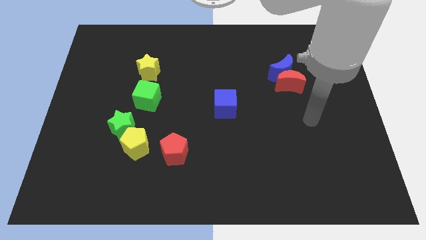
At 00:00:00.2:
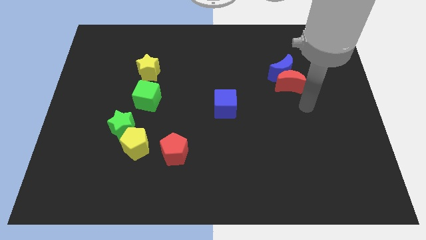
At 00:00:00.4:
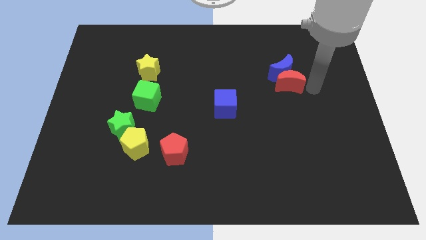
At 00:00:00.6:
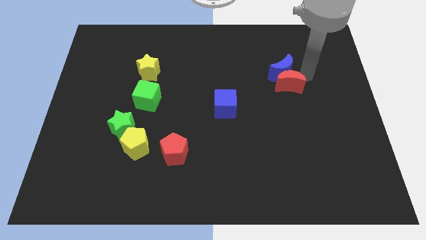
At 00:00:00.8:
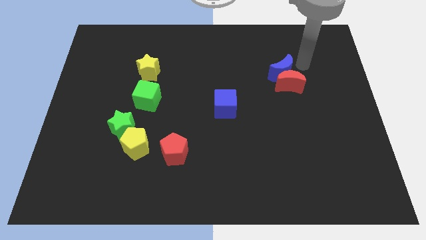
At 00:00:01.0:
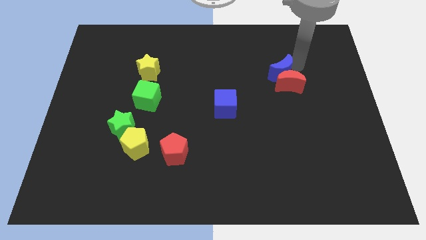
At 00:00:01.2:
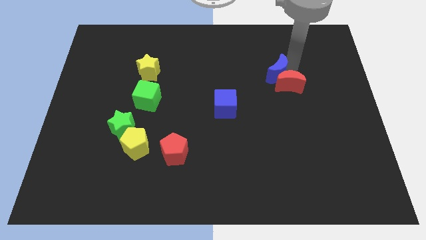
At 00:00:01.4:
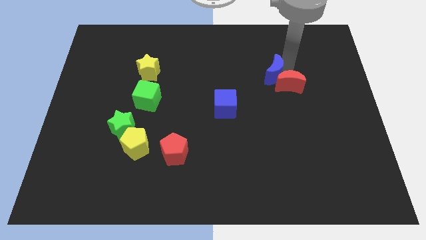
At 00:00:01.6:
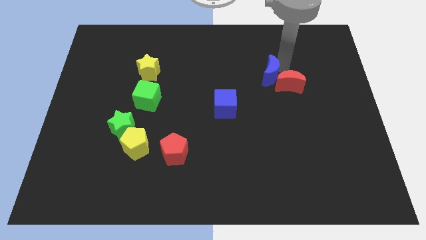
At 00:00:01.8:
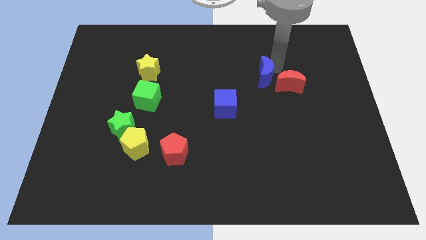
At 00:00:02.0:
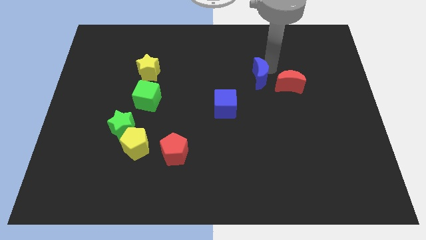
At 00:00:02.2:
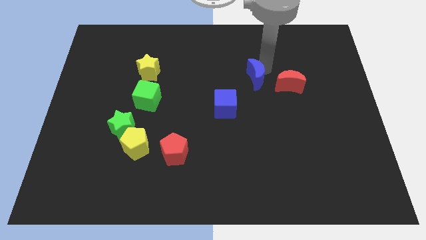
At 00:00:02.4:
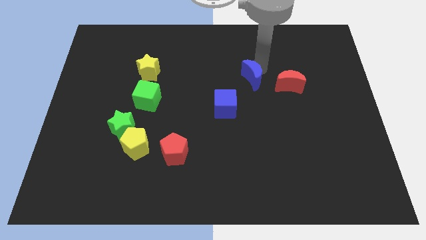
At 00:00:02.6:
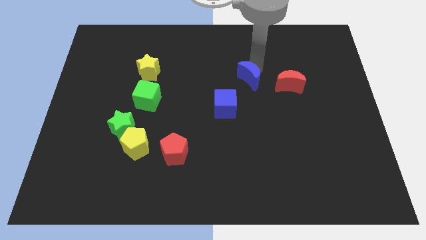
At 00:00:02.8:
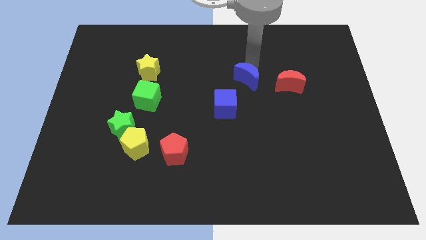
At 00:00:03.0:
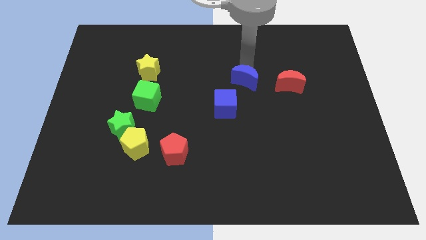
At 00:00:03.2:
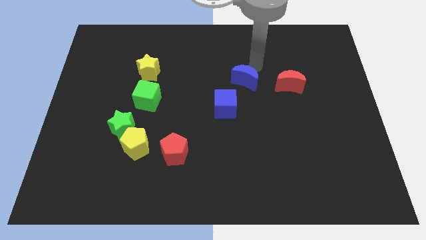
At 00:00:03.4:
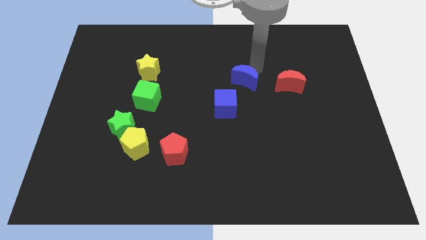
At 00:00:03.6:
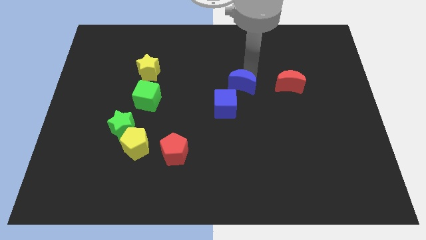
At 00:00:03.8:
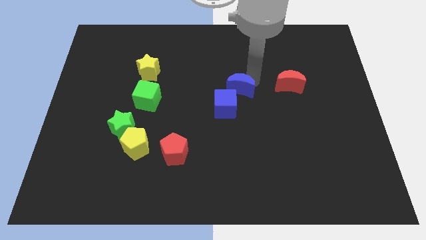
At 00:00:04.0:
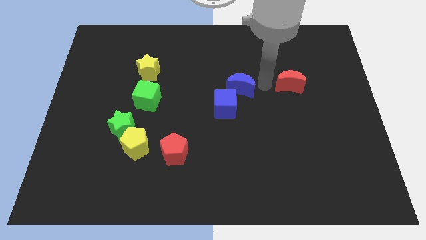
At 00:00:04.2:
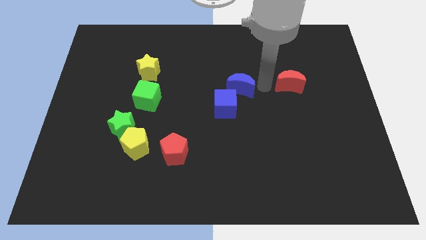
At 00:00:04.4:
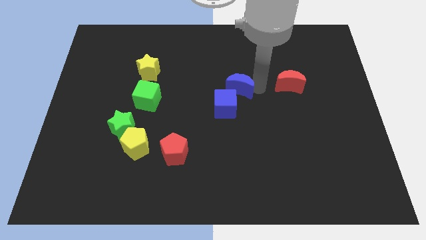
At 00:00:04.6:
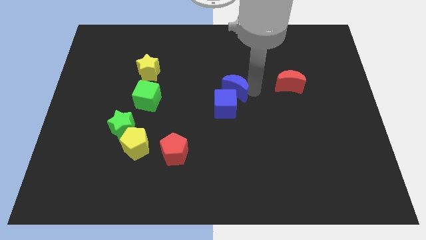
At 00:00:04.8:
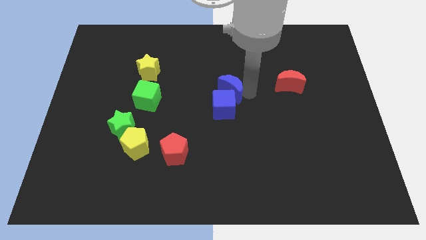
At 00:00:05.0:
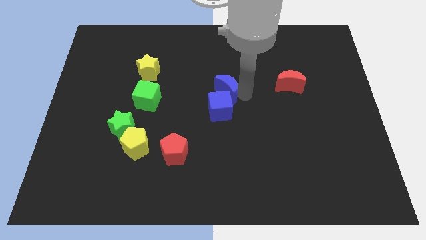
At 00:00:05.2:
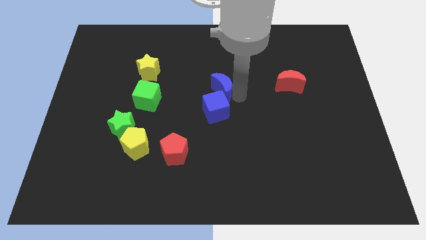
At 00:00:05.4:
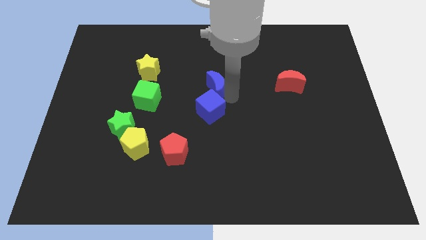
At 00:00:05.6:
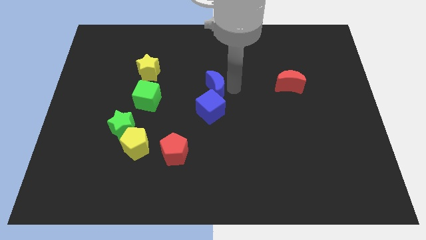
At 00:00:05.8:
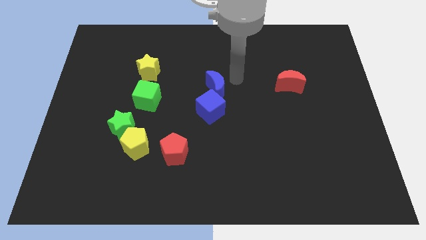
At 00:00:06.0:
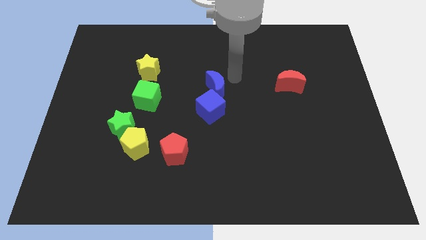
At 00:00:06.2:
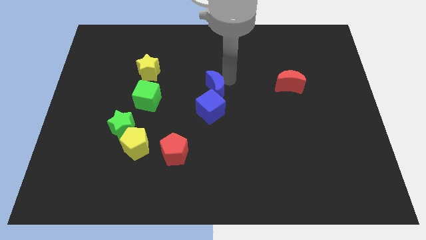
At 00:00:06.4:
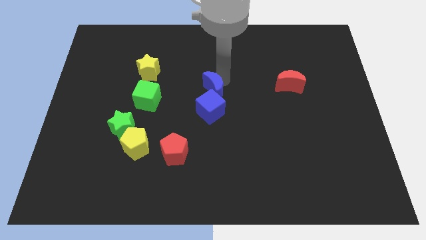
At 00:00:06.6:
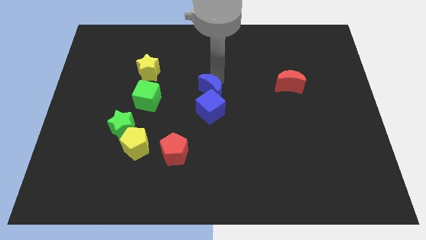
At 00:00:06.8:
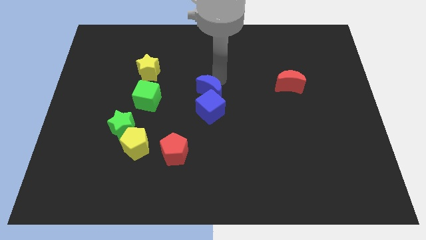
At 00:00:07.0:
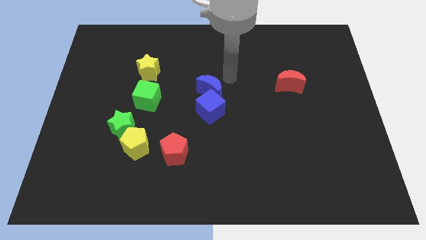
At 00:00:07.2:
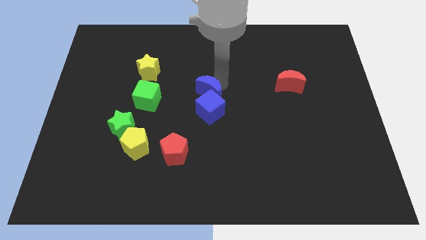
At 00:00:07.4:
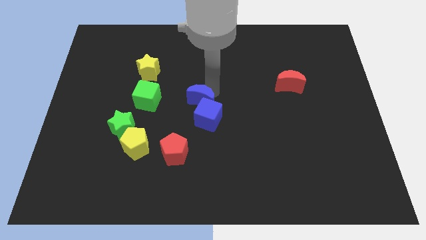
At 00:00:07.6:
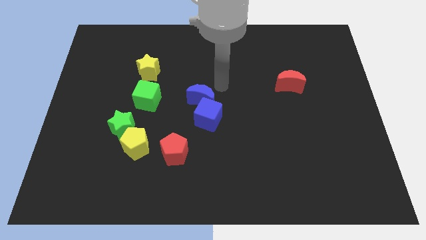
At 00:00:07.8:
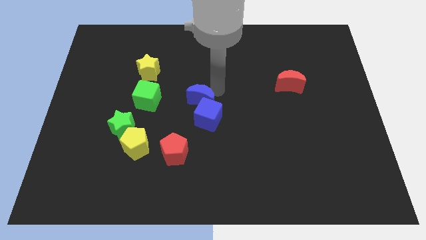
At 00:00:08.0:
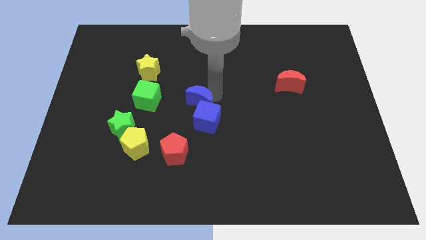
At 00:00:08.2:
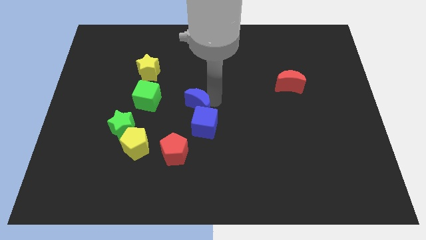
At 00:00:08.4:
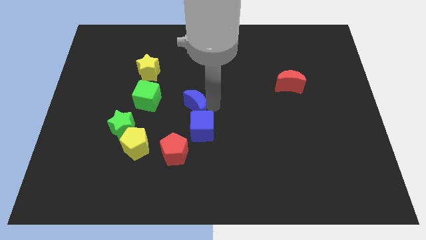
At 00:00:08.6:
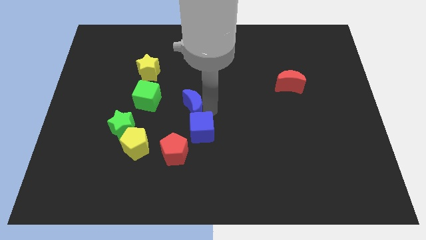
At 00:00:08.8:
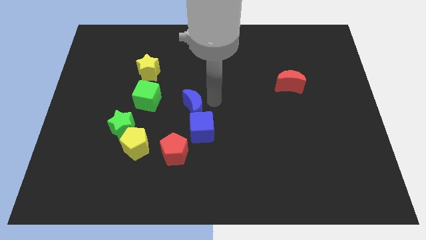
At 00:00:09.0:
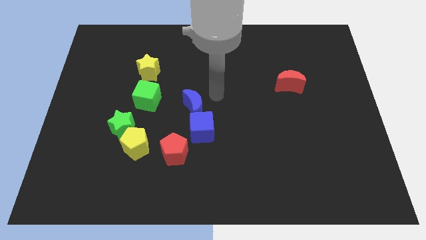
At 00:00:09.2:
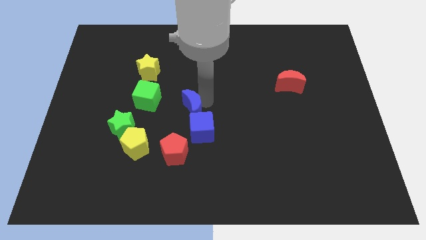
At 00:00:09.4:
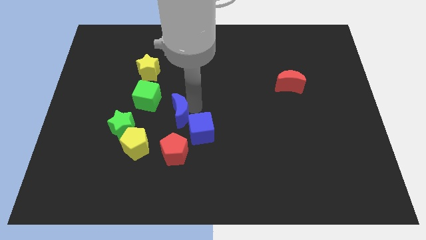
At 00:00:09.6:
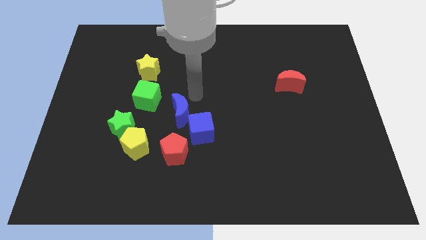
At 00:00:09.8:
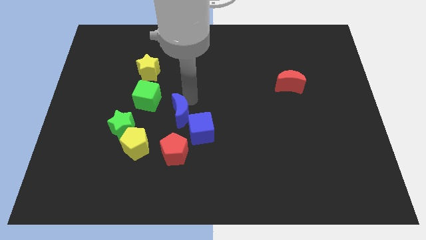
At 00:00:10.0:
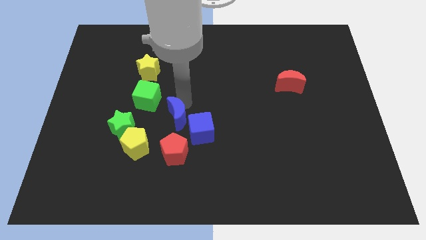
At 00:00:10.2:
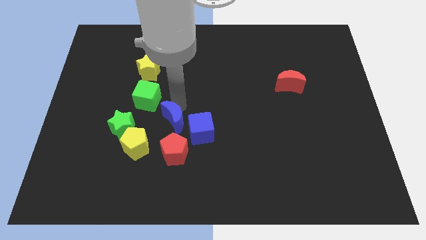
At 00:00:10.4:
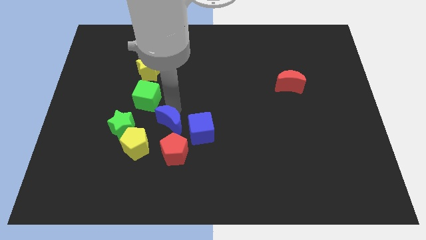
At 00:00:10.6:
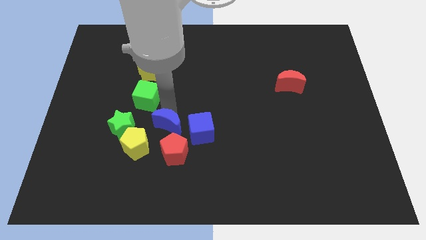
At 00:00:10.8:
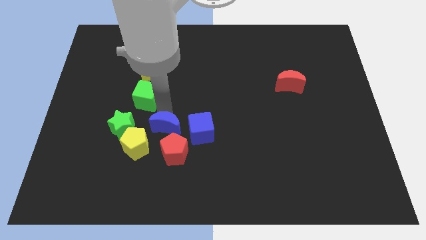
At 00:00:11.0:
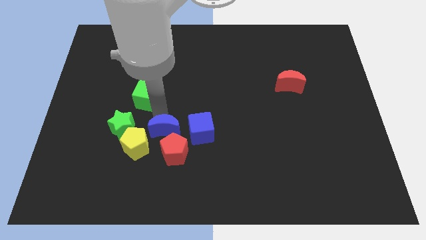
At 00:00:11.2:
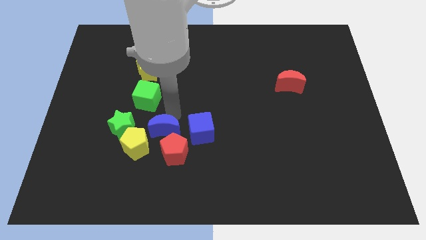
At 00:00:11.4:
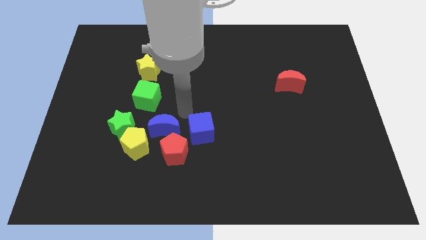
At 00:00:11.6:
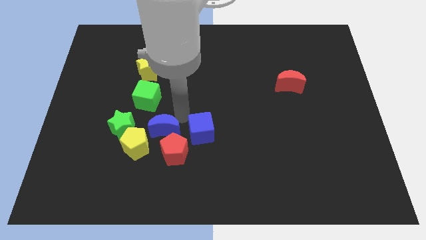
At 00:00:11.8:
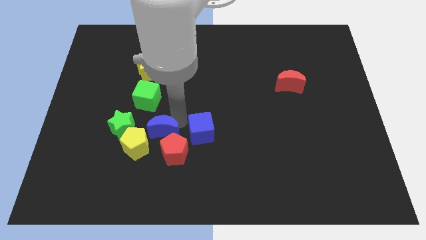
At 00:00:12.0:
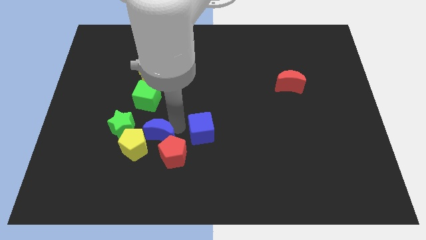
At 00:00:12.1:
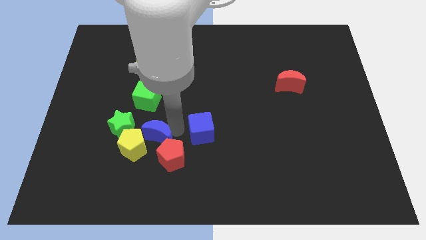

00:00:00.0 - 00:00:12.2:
slide the blue moon to the bottom right of the green star

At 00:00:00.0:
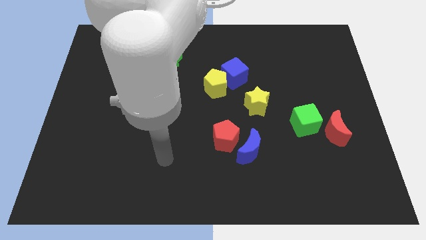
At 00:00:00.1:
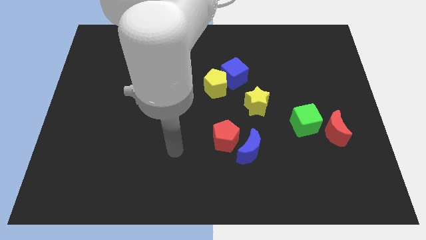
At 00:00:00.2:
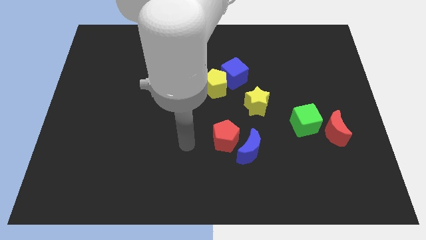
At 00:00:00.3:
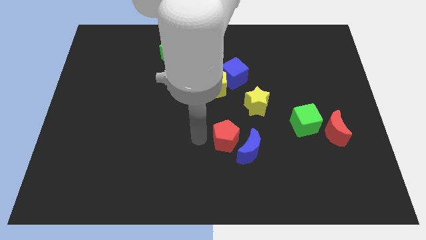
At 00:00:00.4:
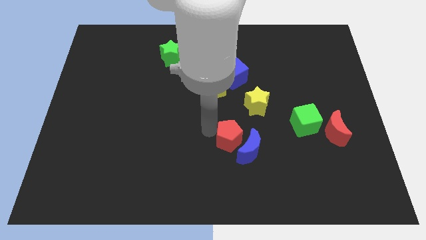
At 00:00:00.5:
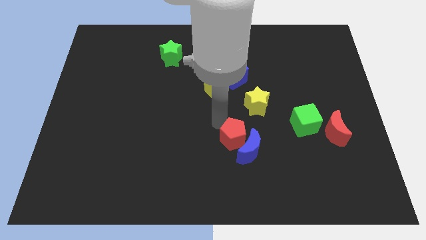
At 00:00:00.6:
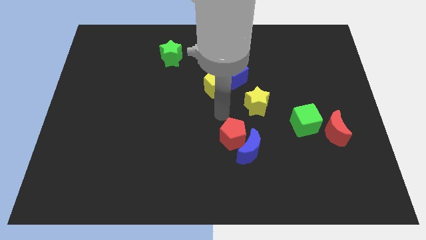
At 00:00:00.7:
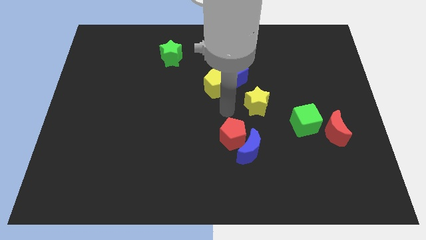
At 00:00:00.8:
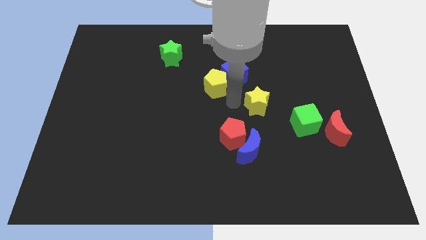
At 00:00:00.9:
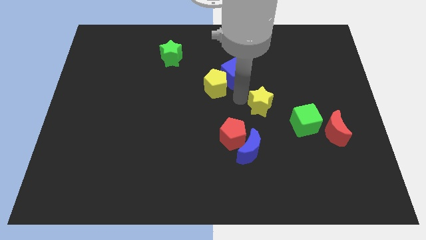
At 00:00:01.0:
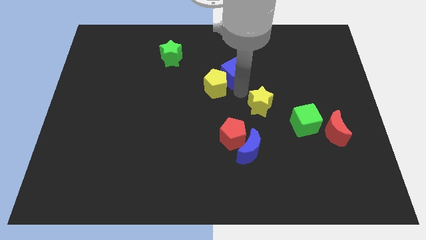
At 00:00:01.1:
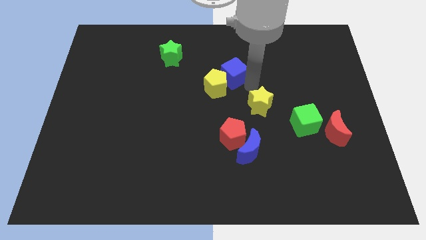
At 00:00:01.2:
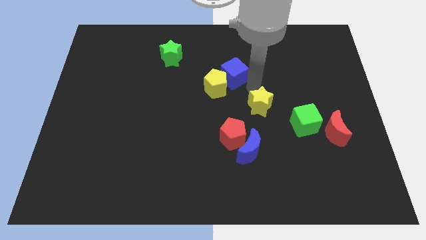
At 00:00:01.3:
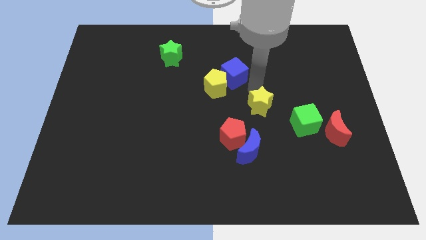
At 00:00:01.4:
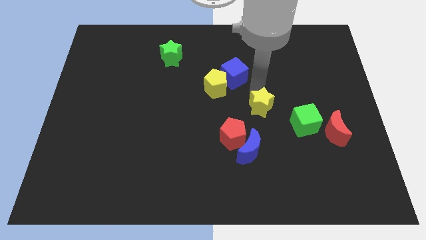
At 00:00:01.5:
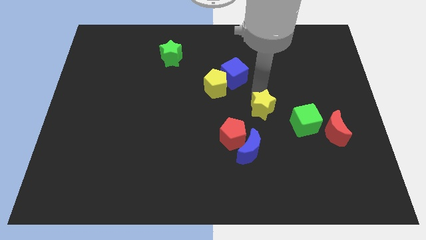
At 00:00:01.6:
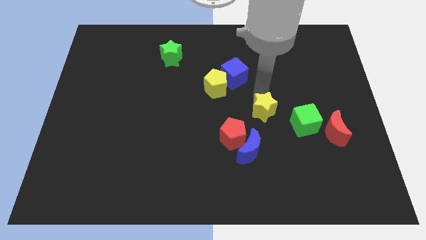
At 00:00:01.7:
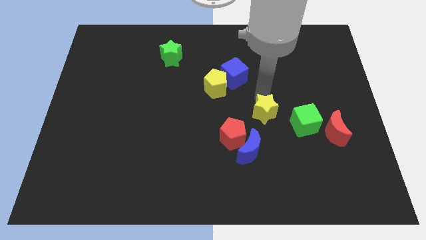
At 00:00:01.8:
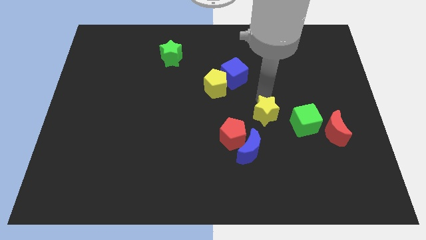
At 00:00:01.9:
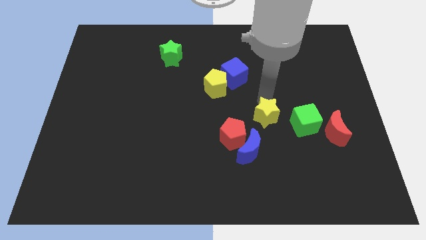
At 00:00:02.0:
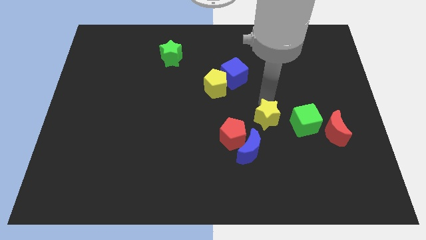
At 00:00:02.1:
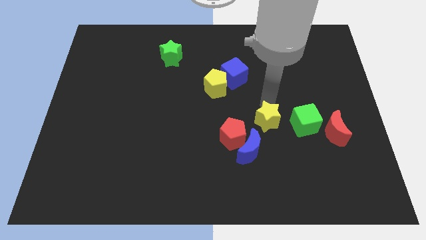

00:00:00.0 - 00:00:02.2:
push the yellow star right of the red pentagon
